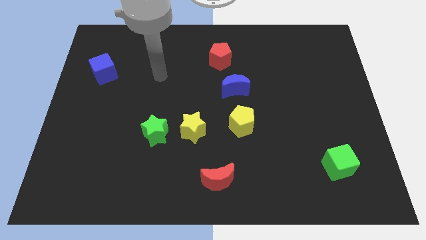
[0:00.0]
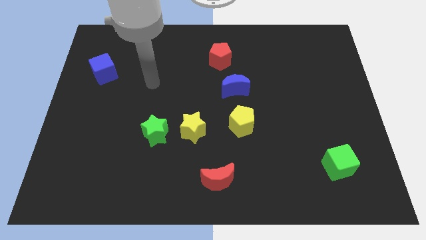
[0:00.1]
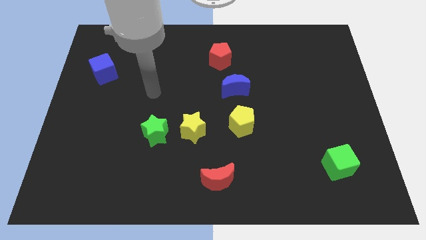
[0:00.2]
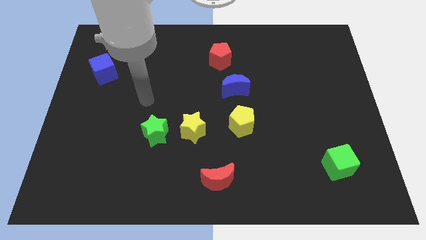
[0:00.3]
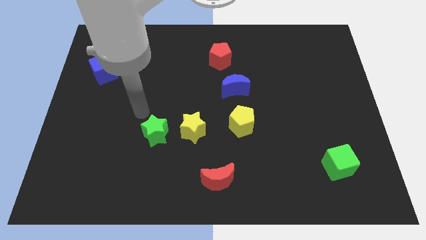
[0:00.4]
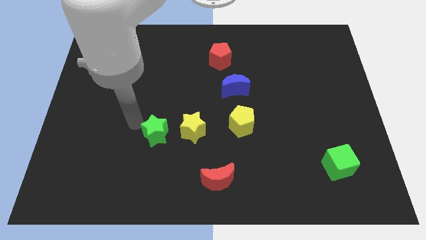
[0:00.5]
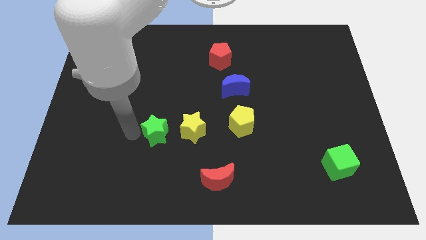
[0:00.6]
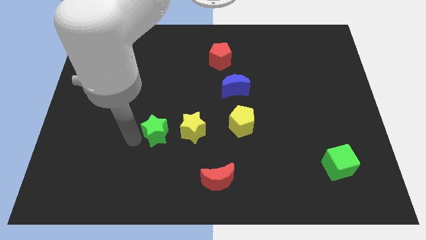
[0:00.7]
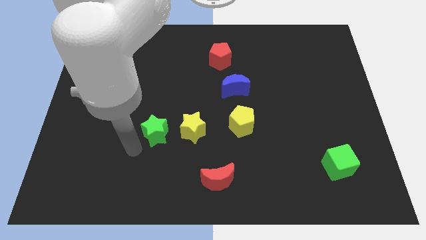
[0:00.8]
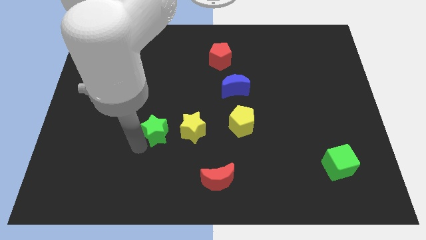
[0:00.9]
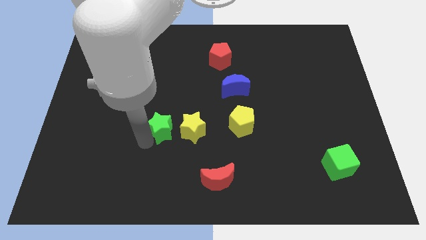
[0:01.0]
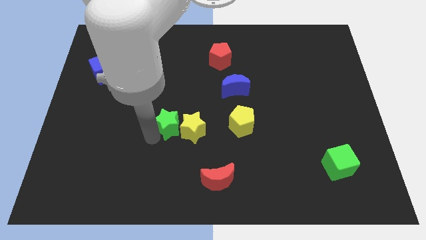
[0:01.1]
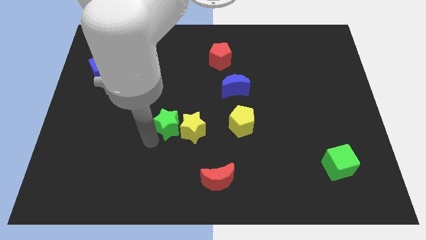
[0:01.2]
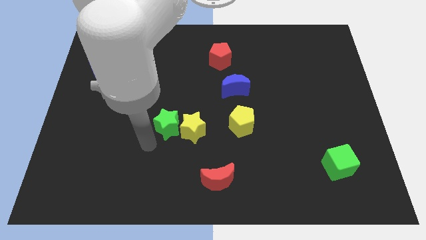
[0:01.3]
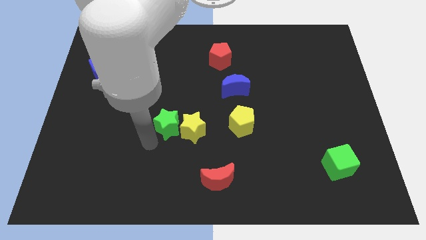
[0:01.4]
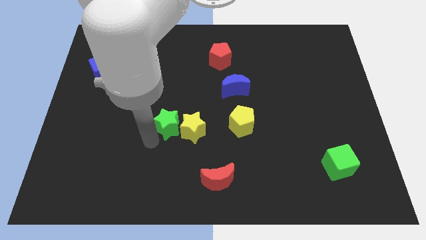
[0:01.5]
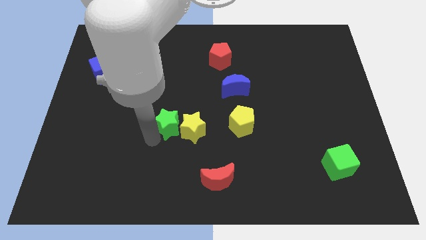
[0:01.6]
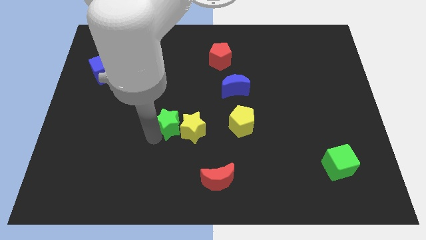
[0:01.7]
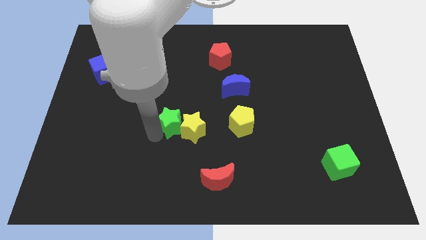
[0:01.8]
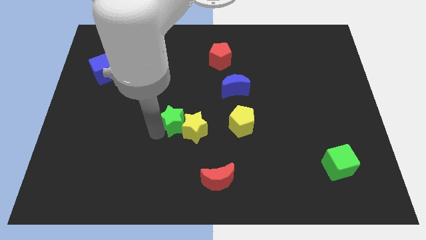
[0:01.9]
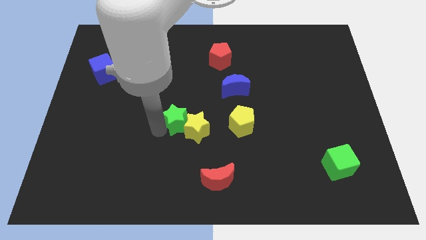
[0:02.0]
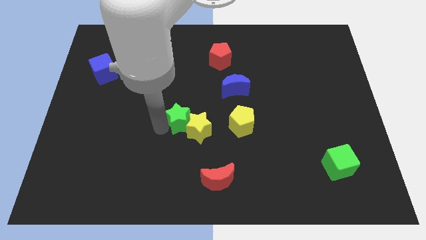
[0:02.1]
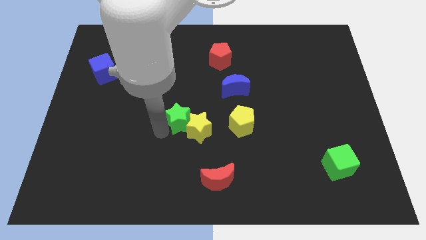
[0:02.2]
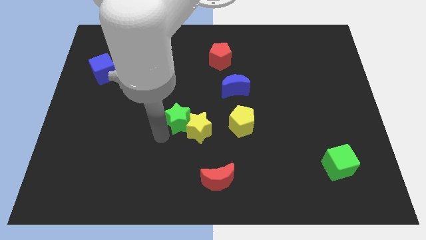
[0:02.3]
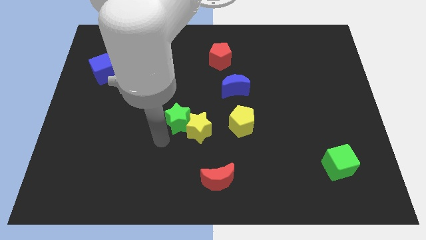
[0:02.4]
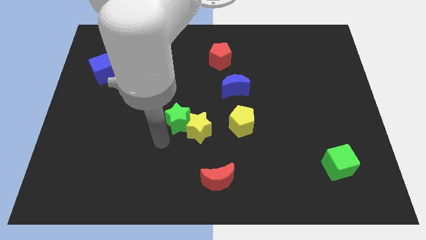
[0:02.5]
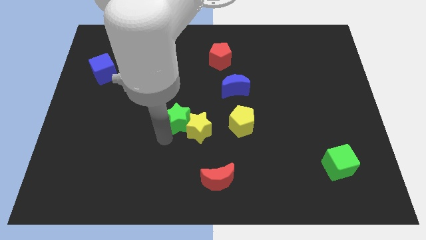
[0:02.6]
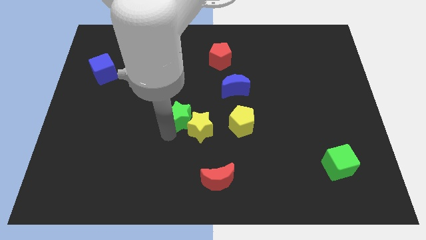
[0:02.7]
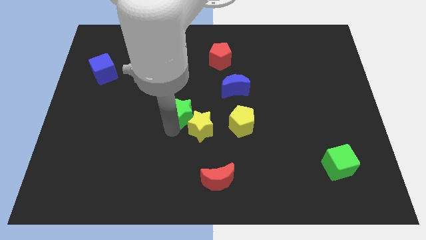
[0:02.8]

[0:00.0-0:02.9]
slightly push the green star upwards and to the right diagonally

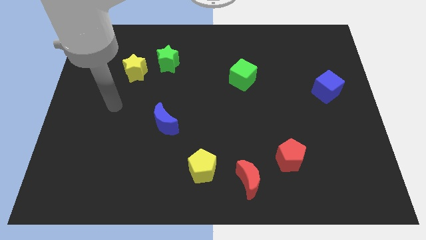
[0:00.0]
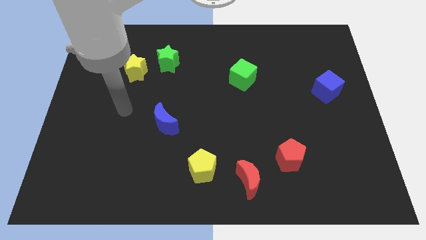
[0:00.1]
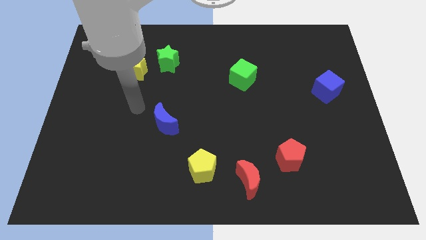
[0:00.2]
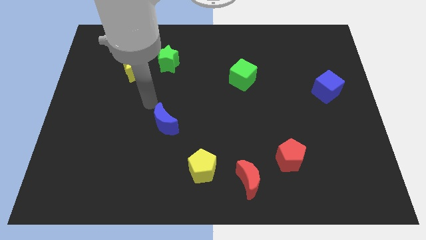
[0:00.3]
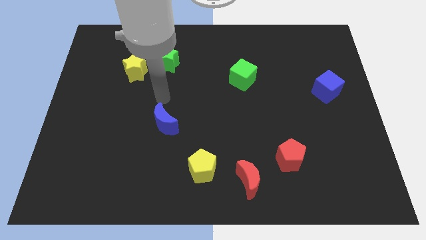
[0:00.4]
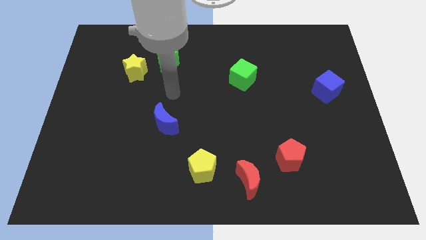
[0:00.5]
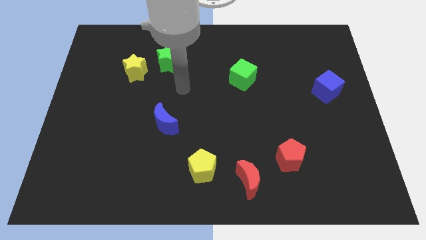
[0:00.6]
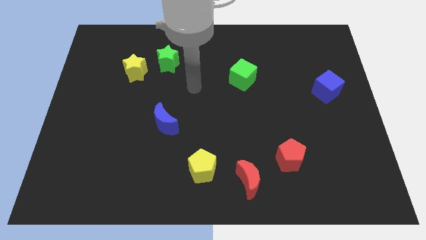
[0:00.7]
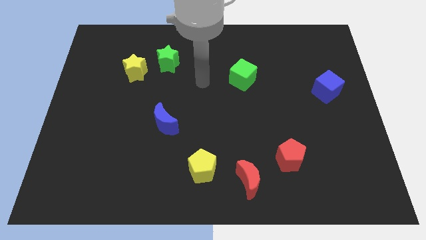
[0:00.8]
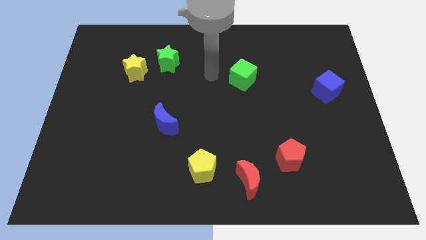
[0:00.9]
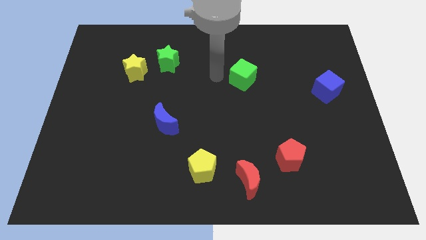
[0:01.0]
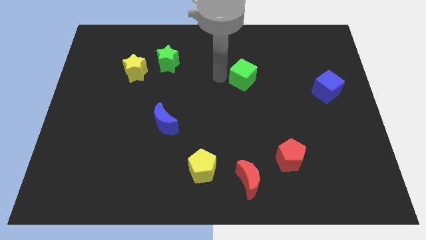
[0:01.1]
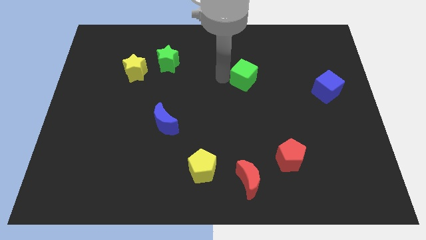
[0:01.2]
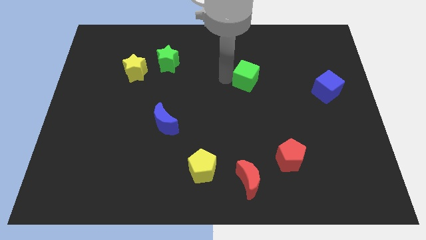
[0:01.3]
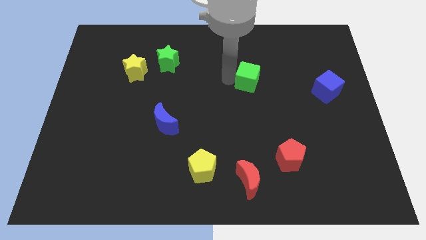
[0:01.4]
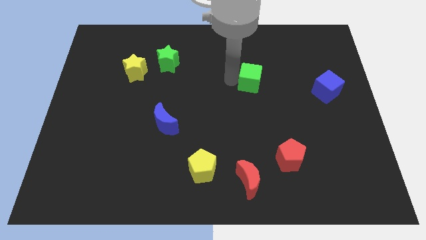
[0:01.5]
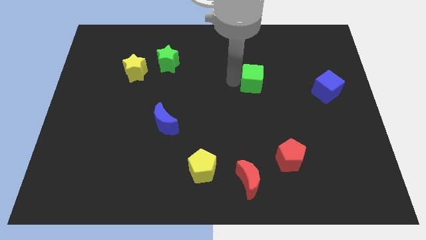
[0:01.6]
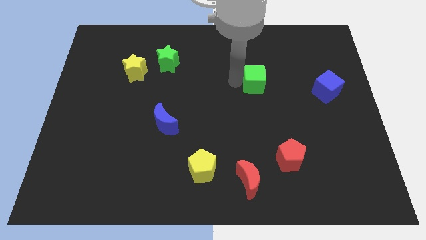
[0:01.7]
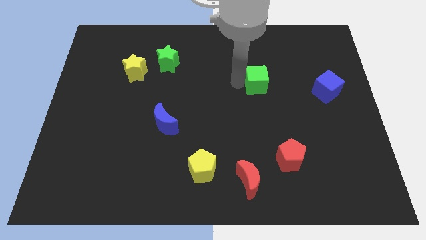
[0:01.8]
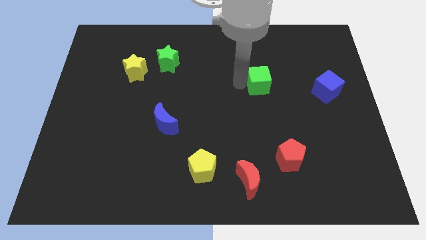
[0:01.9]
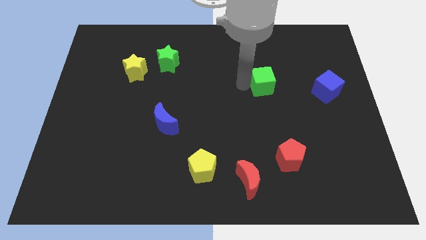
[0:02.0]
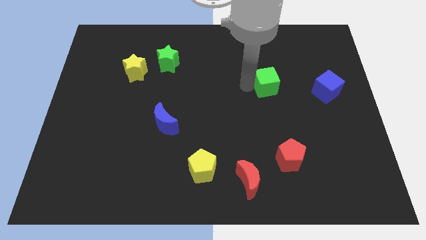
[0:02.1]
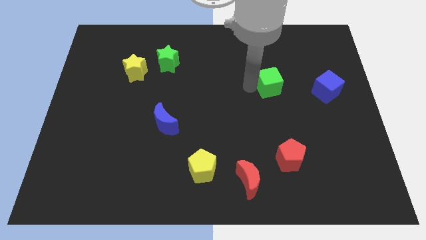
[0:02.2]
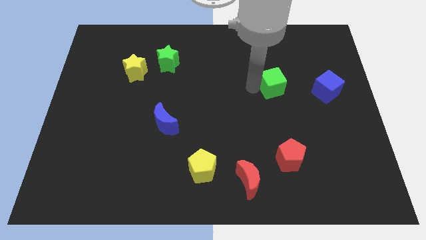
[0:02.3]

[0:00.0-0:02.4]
slide the green cube right a little

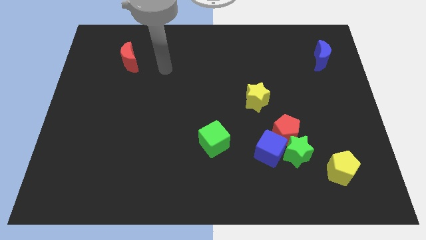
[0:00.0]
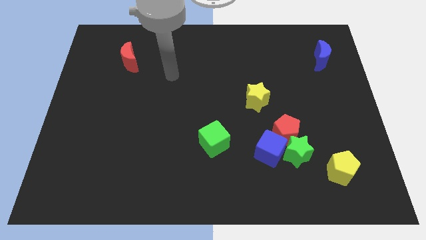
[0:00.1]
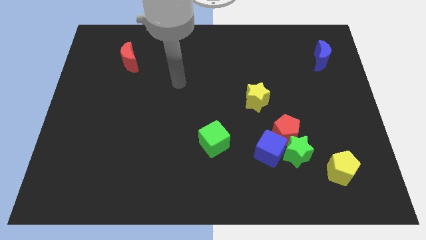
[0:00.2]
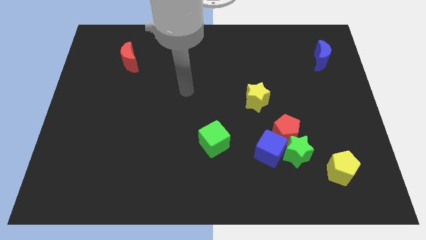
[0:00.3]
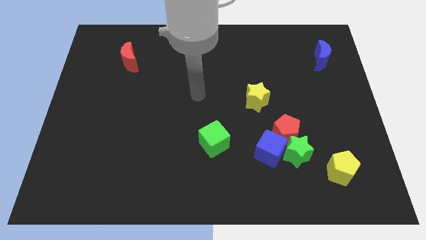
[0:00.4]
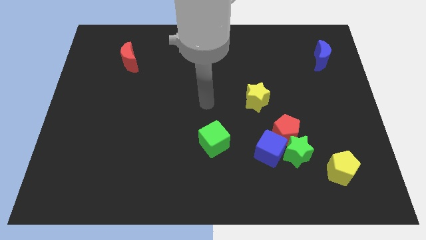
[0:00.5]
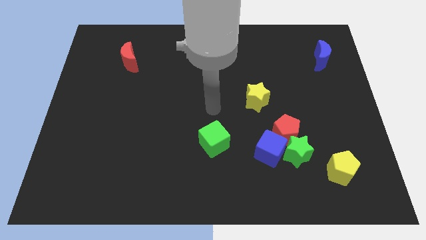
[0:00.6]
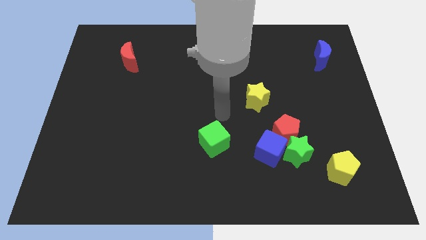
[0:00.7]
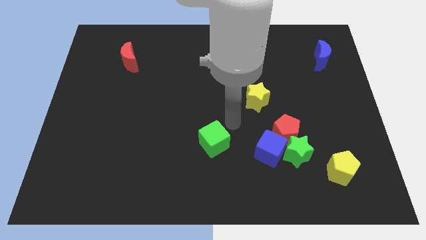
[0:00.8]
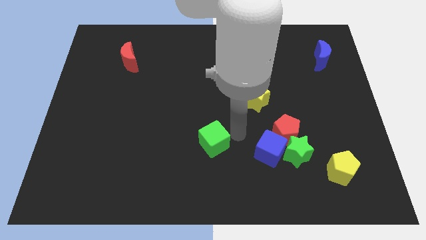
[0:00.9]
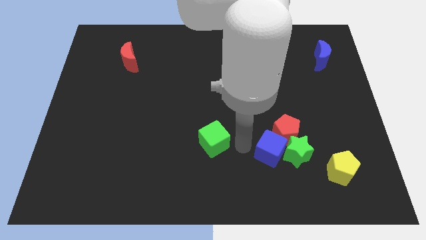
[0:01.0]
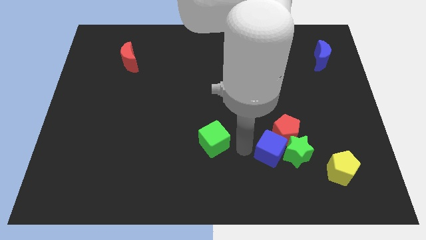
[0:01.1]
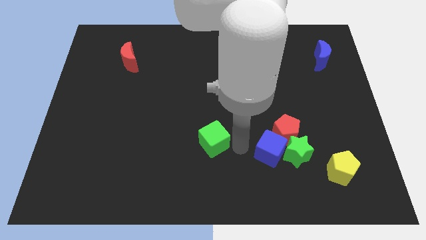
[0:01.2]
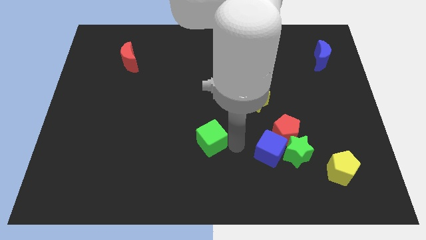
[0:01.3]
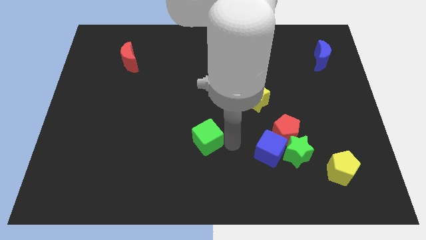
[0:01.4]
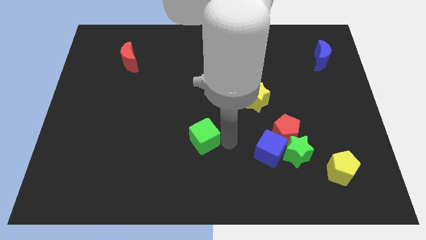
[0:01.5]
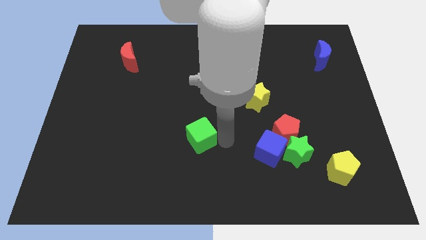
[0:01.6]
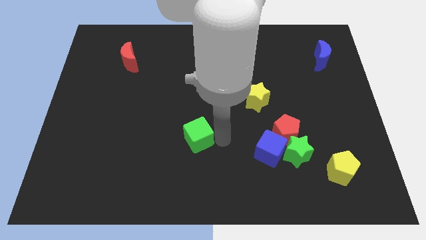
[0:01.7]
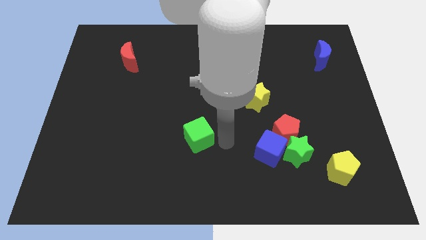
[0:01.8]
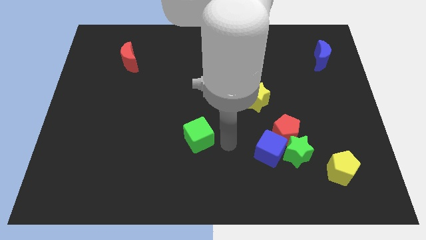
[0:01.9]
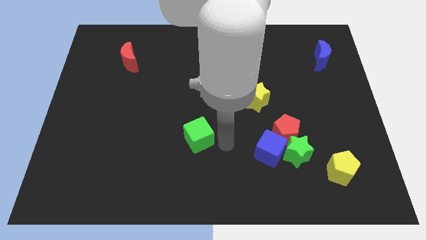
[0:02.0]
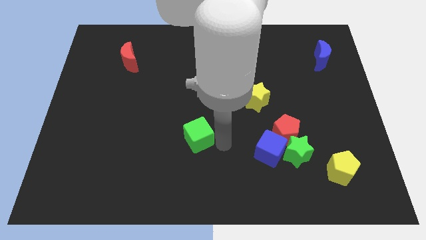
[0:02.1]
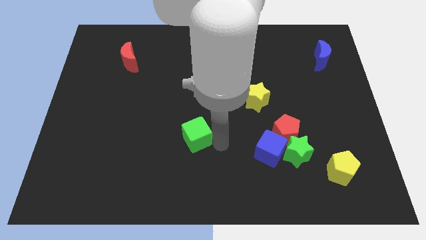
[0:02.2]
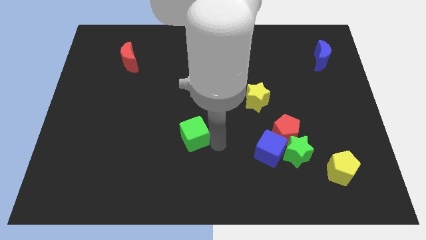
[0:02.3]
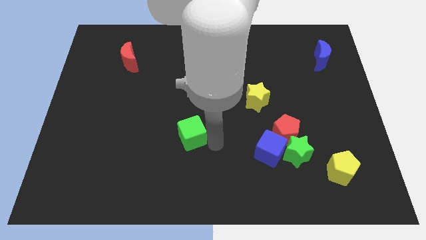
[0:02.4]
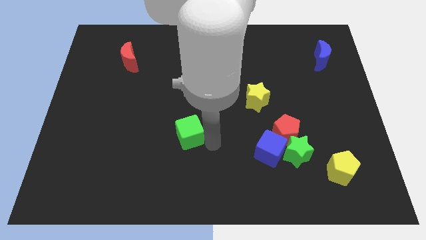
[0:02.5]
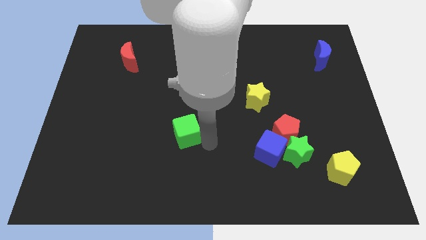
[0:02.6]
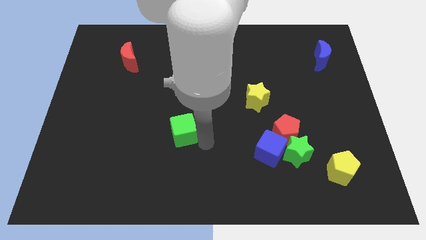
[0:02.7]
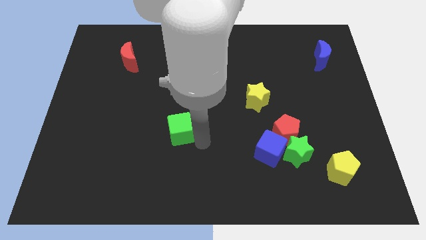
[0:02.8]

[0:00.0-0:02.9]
move the green cube left a little bit
